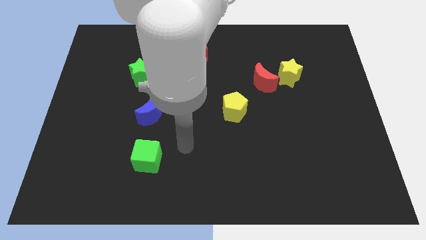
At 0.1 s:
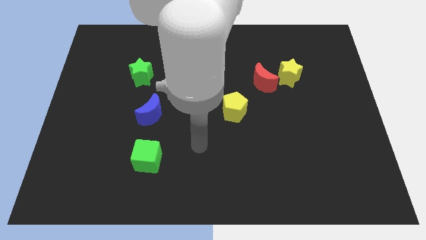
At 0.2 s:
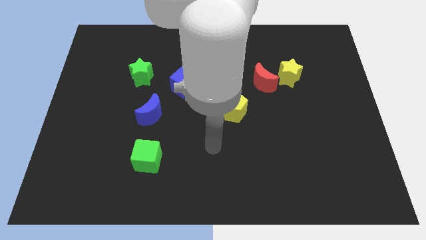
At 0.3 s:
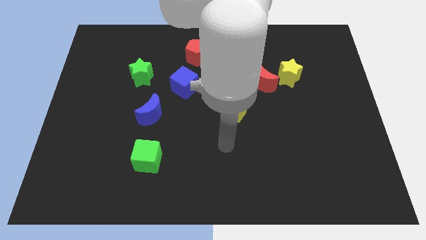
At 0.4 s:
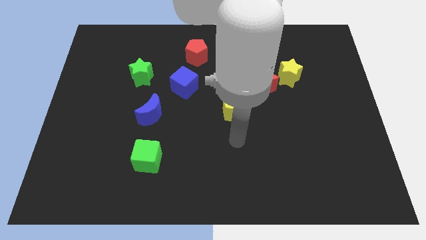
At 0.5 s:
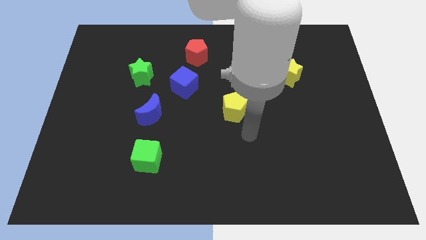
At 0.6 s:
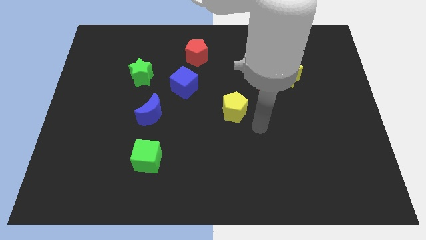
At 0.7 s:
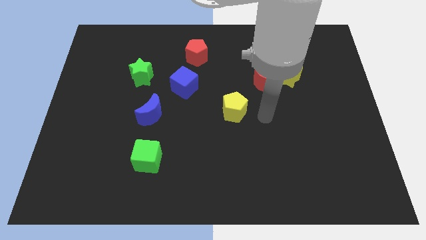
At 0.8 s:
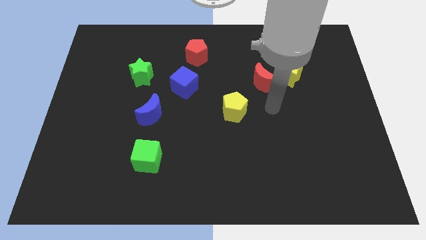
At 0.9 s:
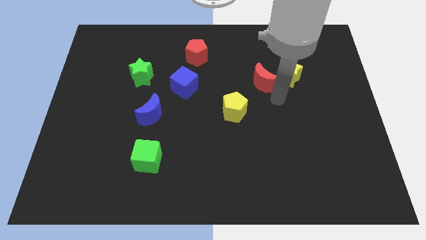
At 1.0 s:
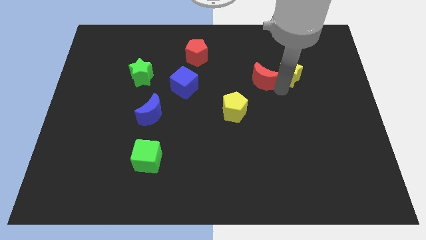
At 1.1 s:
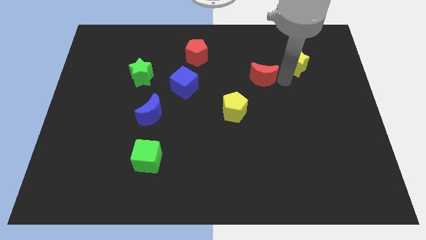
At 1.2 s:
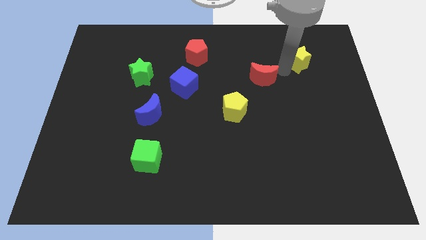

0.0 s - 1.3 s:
move the red moon away from the yellow star

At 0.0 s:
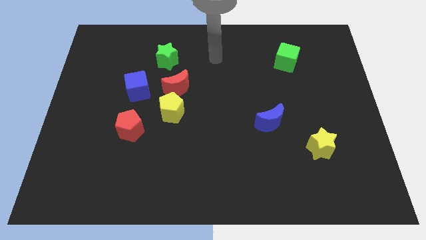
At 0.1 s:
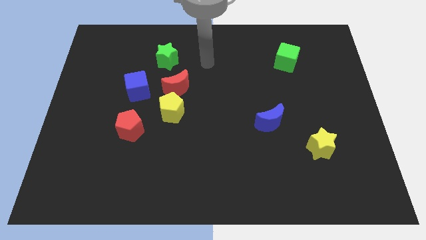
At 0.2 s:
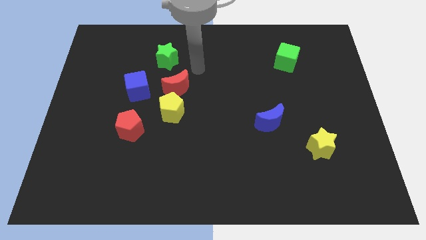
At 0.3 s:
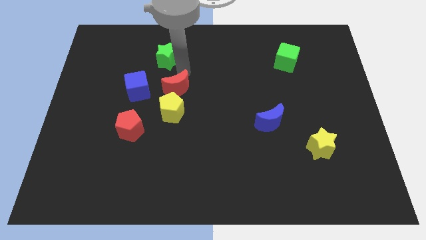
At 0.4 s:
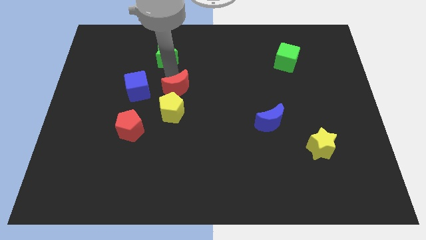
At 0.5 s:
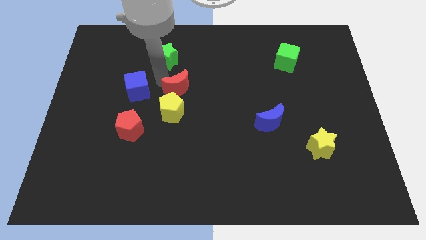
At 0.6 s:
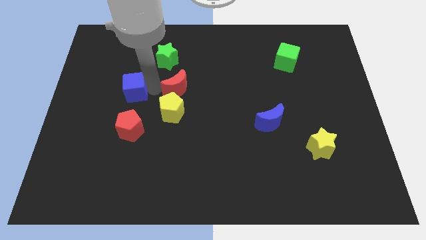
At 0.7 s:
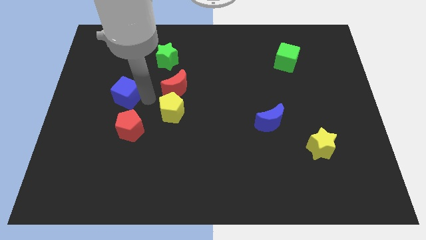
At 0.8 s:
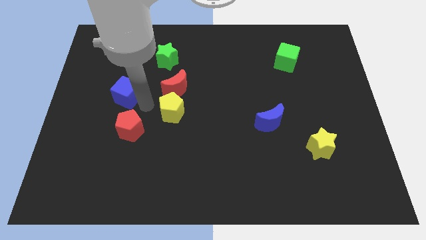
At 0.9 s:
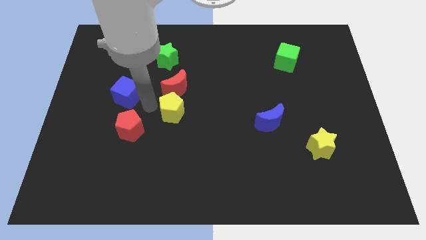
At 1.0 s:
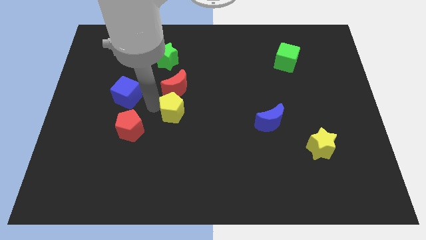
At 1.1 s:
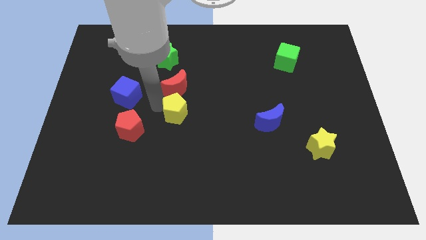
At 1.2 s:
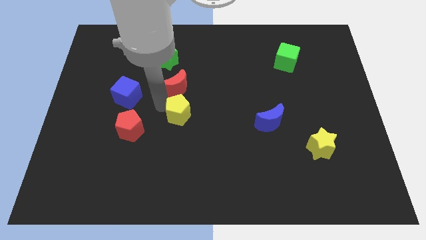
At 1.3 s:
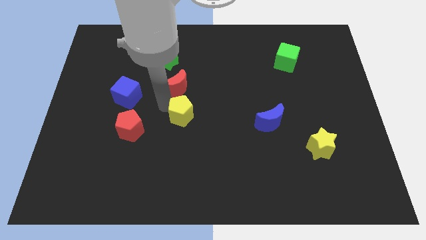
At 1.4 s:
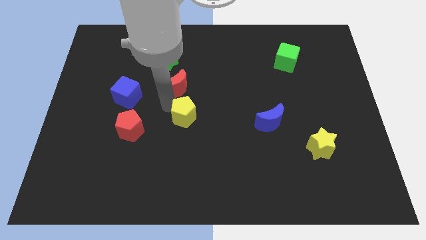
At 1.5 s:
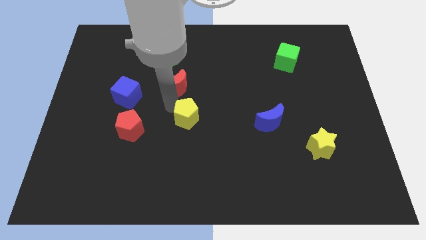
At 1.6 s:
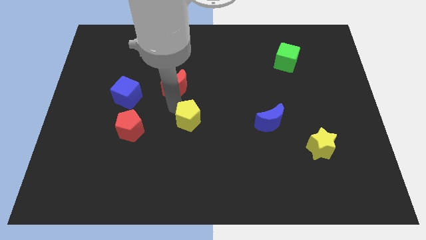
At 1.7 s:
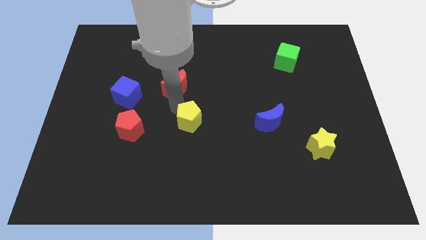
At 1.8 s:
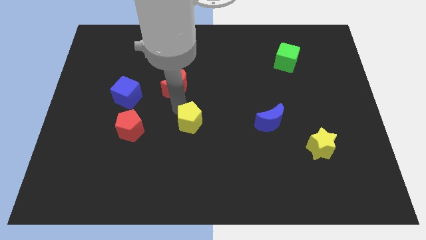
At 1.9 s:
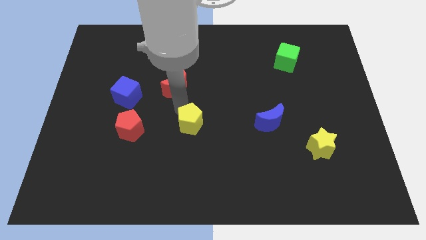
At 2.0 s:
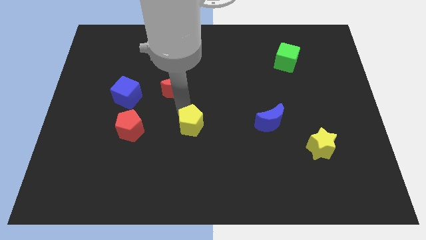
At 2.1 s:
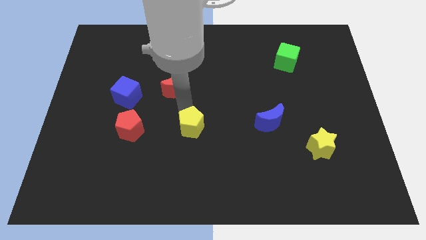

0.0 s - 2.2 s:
pull the yellow pentagon apart from the red moon and red pentagon

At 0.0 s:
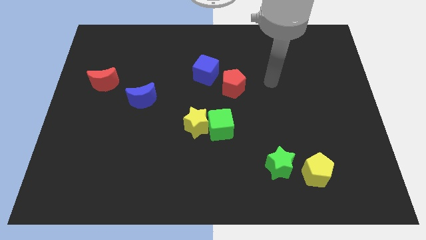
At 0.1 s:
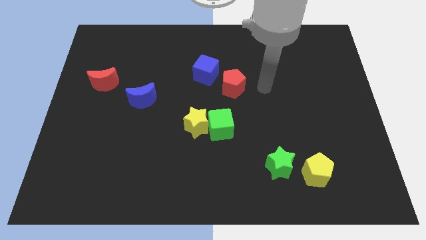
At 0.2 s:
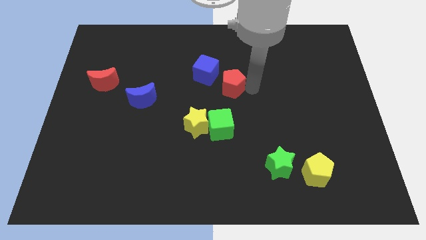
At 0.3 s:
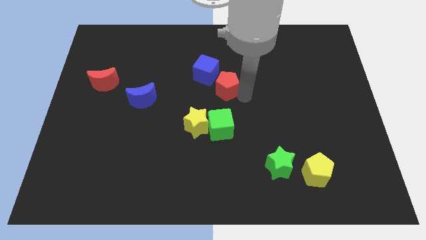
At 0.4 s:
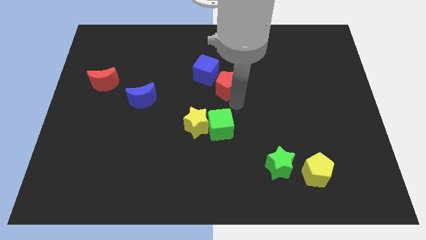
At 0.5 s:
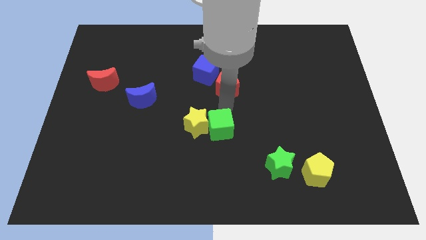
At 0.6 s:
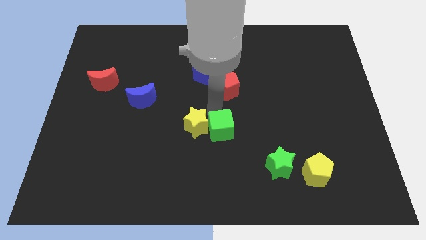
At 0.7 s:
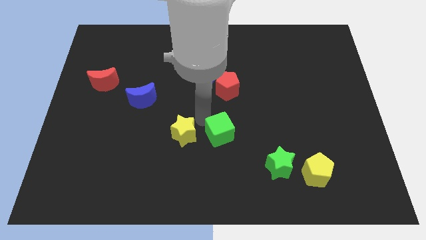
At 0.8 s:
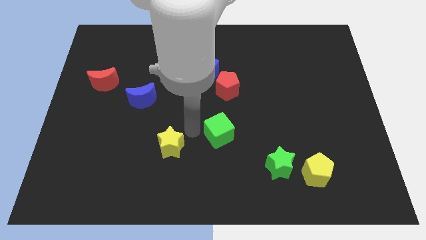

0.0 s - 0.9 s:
pull the green cube apart from the yellow star

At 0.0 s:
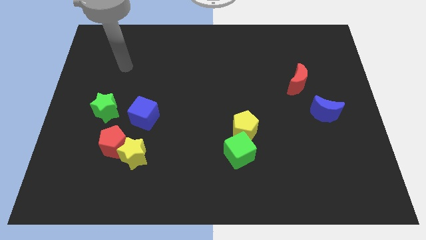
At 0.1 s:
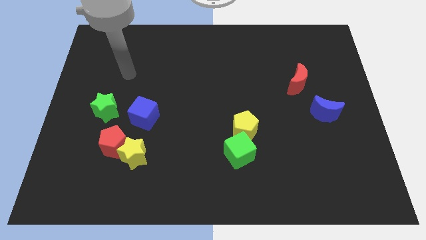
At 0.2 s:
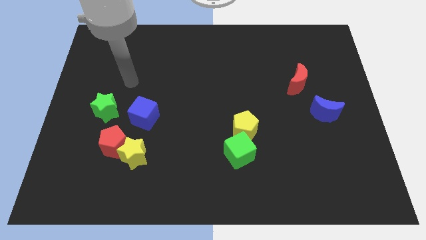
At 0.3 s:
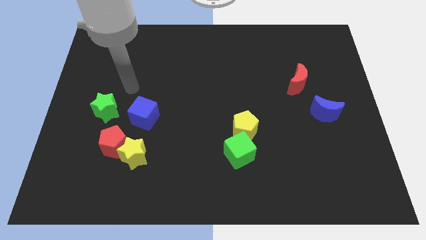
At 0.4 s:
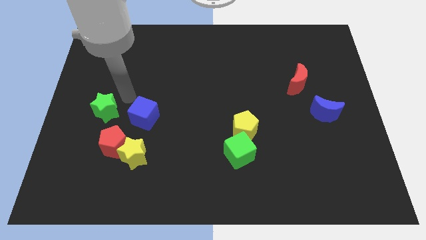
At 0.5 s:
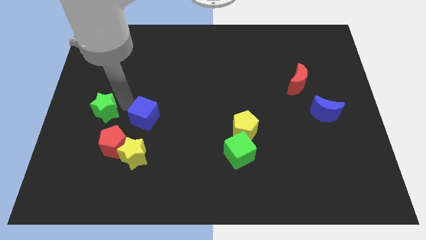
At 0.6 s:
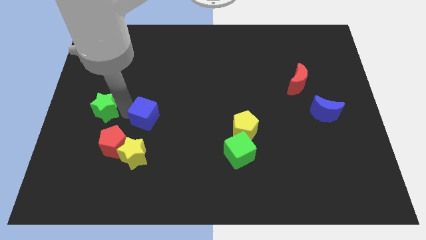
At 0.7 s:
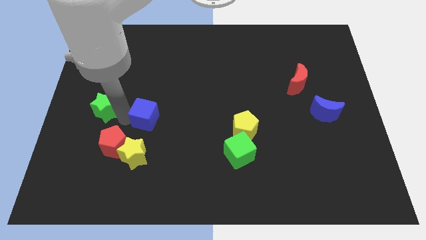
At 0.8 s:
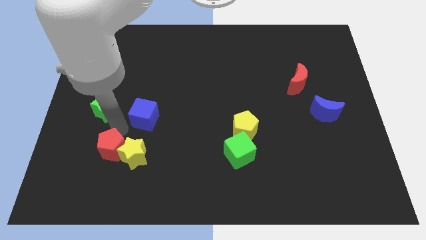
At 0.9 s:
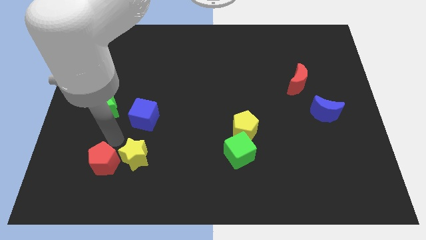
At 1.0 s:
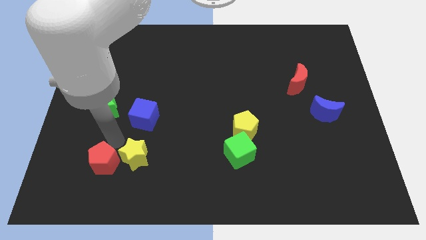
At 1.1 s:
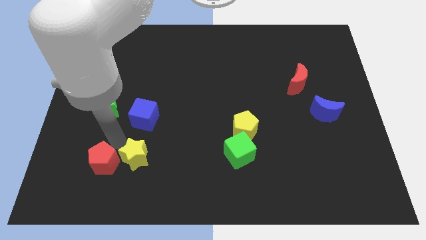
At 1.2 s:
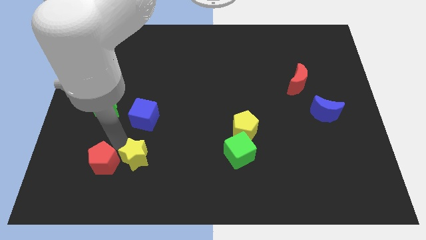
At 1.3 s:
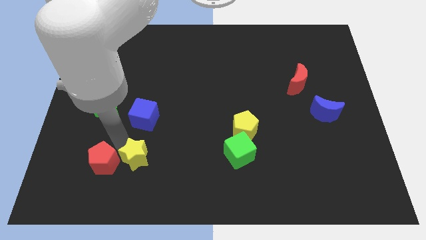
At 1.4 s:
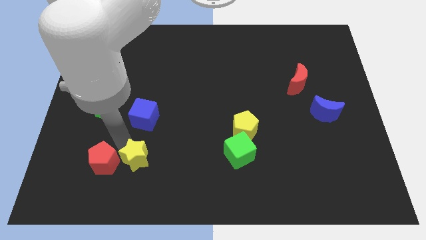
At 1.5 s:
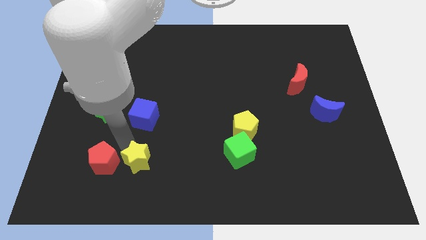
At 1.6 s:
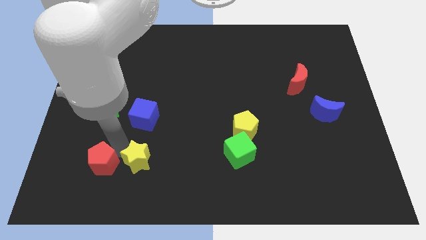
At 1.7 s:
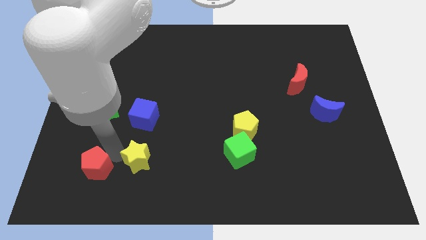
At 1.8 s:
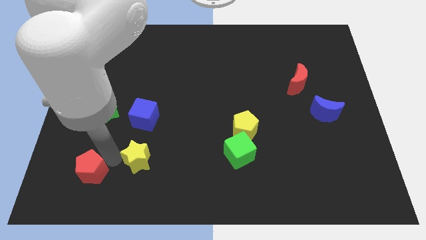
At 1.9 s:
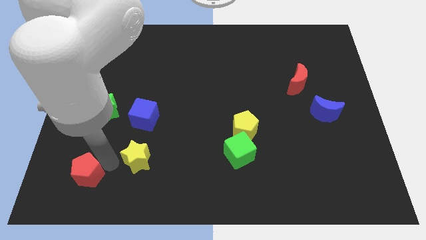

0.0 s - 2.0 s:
pull the yellow star apart from the red pentagon

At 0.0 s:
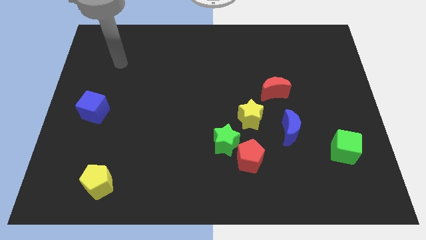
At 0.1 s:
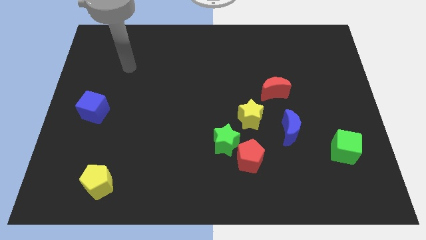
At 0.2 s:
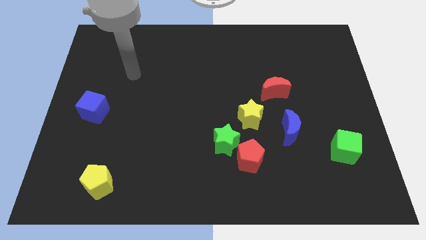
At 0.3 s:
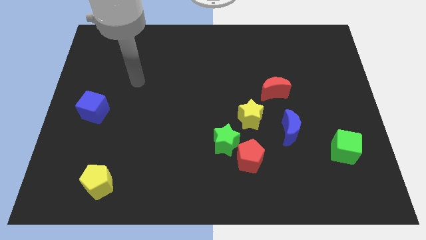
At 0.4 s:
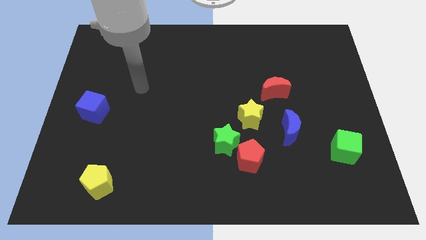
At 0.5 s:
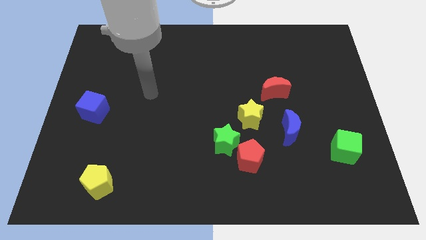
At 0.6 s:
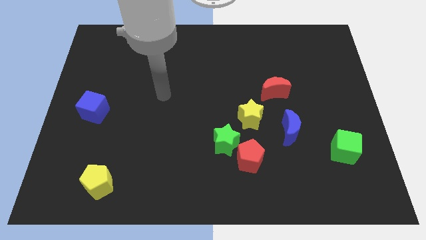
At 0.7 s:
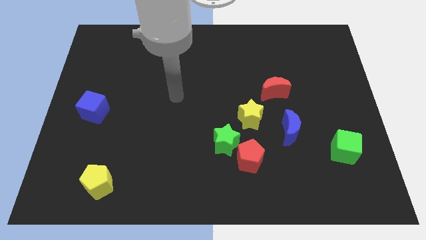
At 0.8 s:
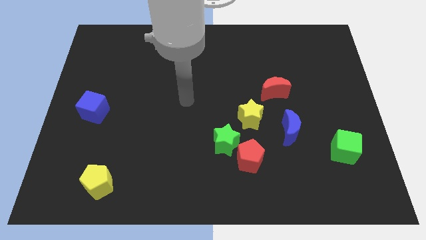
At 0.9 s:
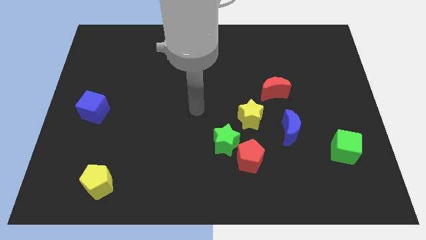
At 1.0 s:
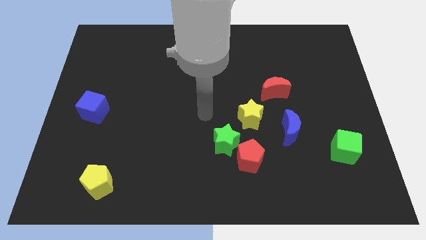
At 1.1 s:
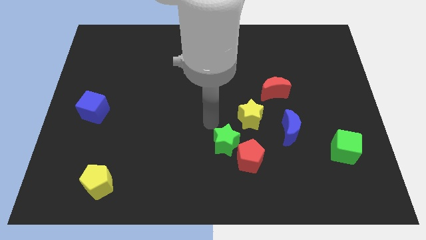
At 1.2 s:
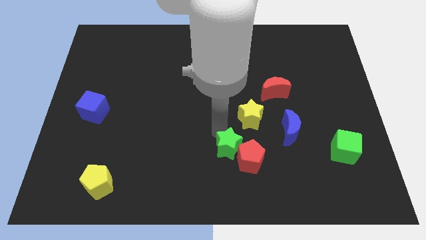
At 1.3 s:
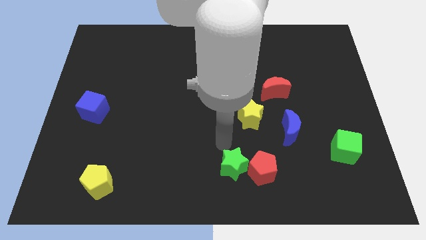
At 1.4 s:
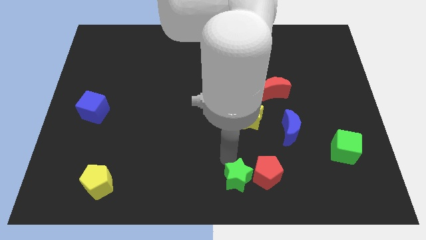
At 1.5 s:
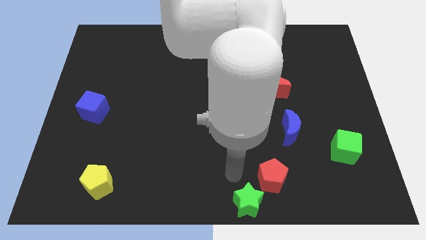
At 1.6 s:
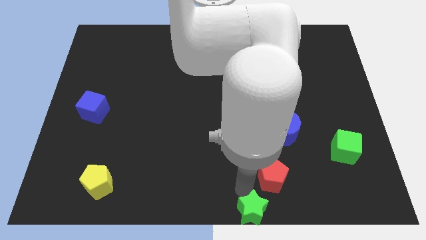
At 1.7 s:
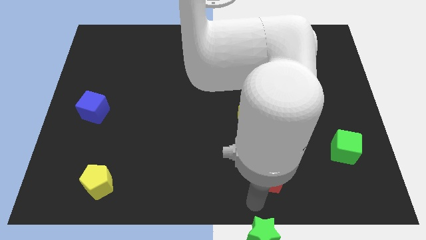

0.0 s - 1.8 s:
separate the red pentagon from the green star

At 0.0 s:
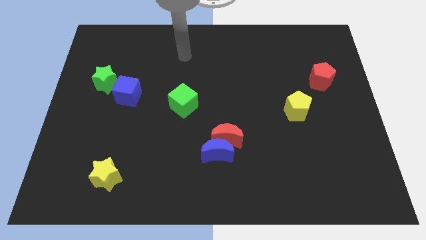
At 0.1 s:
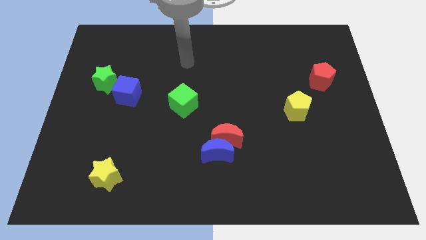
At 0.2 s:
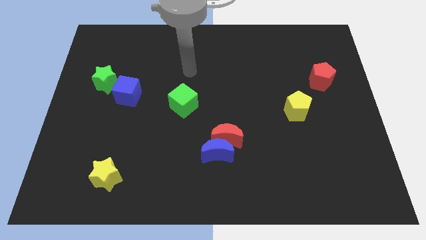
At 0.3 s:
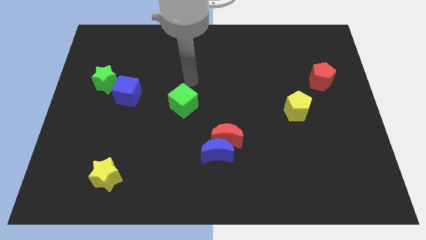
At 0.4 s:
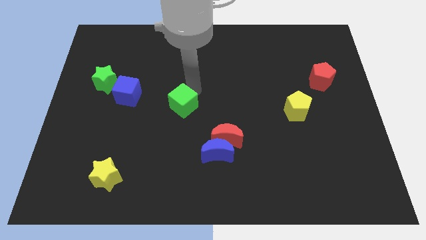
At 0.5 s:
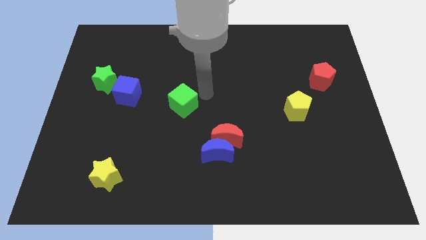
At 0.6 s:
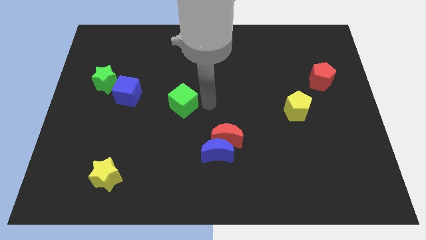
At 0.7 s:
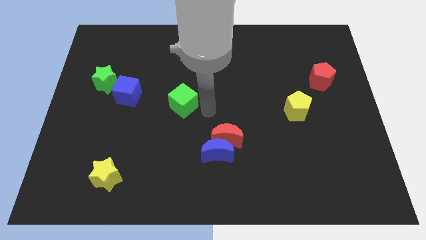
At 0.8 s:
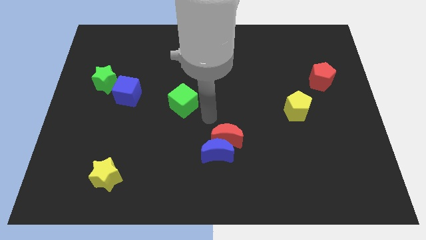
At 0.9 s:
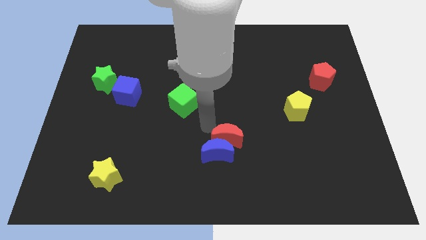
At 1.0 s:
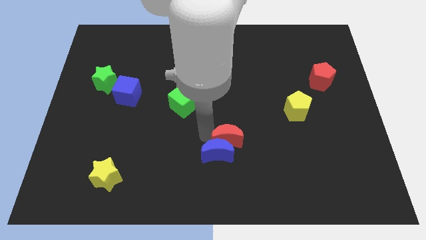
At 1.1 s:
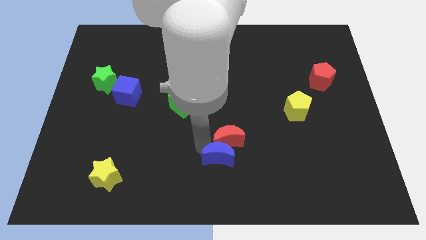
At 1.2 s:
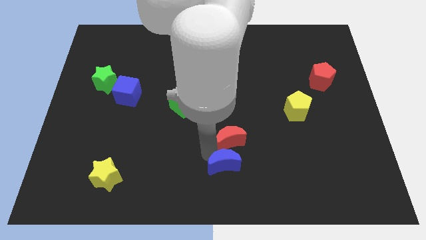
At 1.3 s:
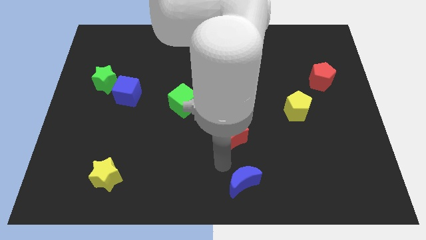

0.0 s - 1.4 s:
separate the red moon from the blue moon
